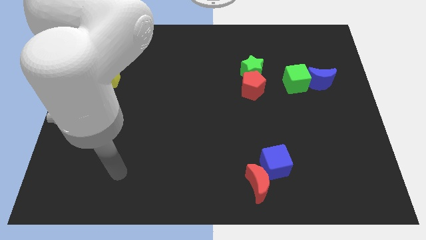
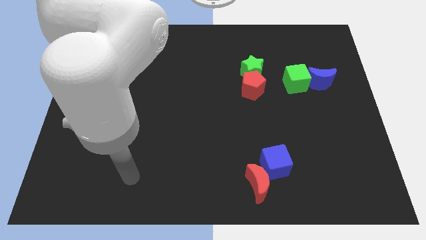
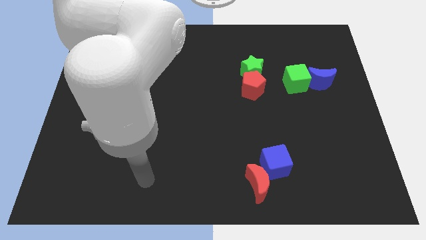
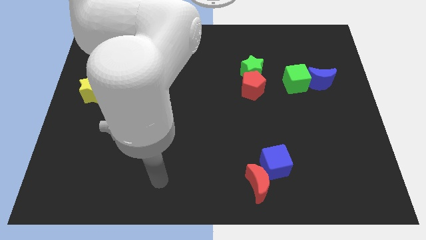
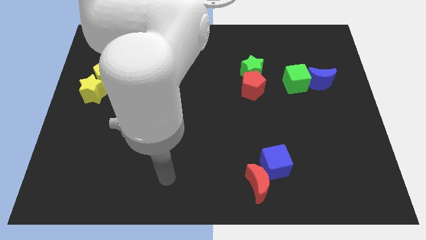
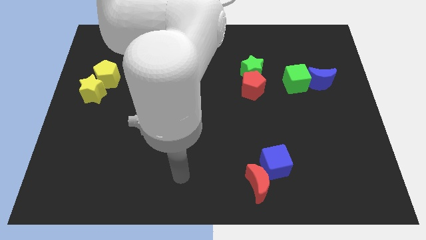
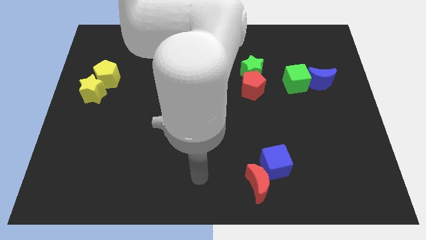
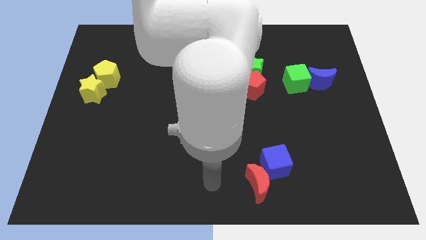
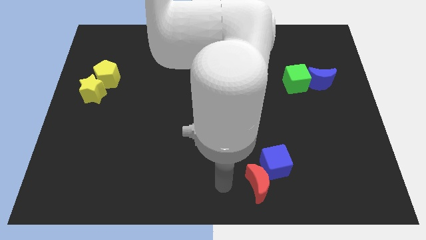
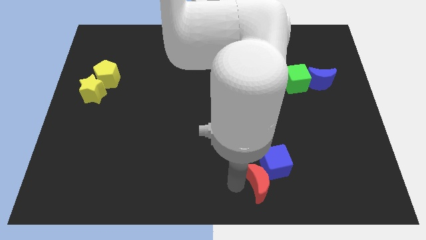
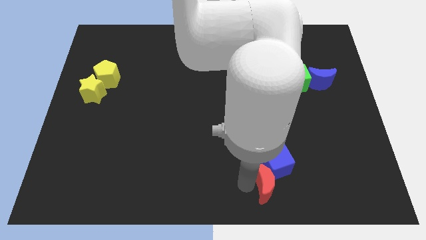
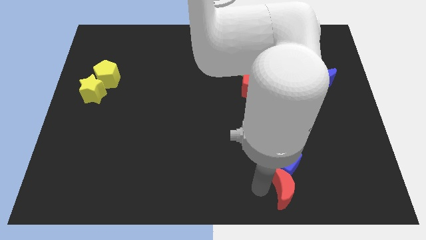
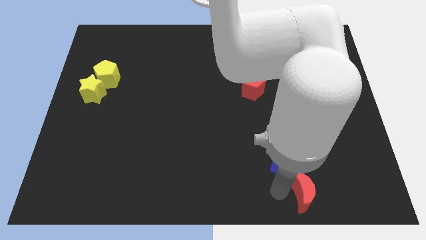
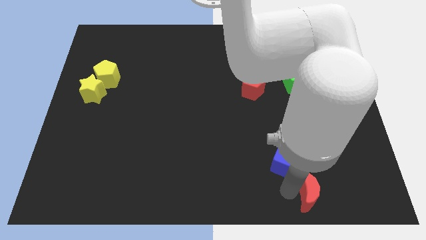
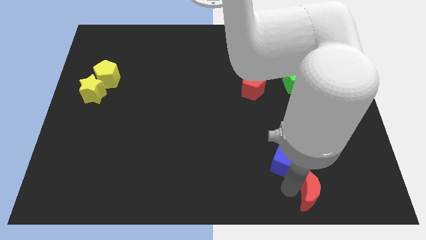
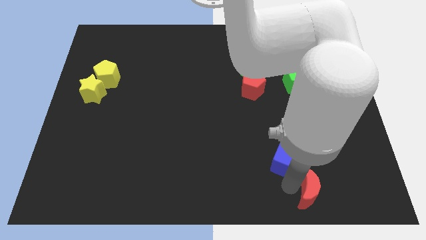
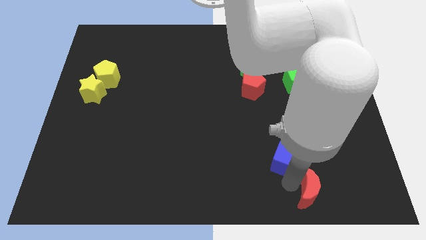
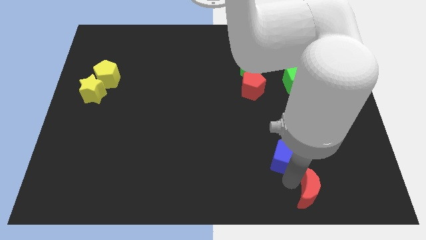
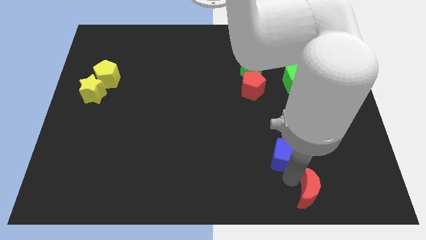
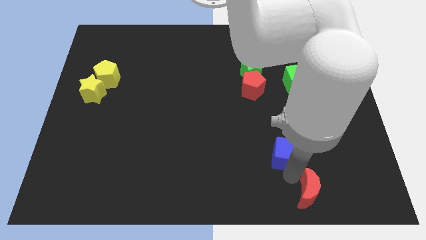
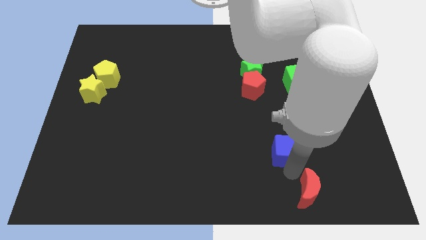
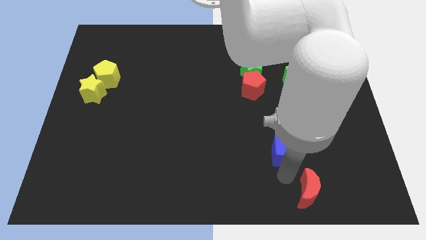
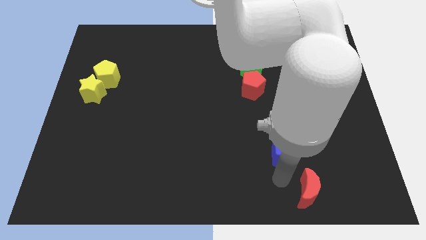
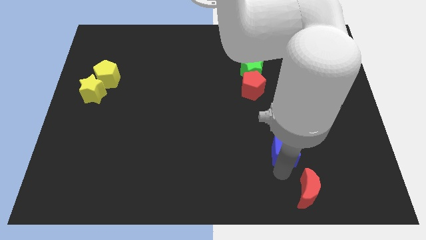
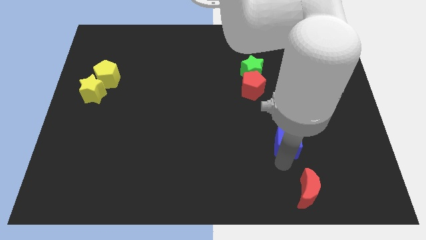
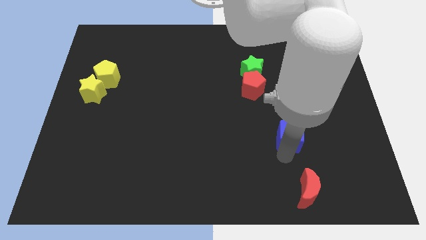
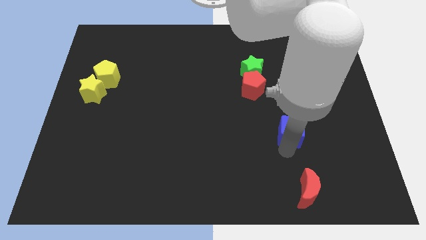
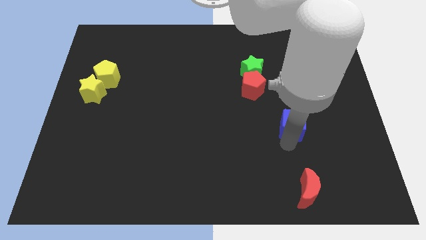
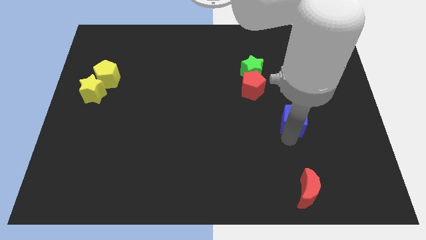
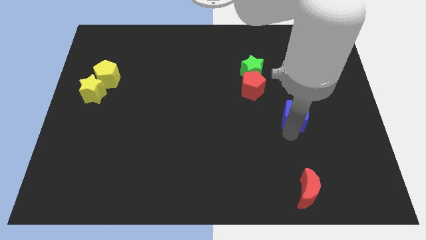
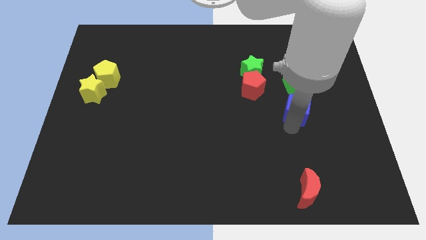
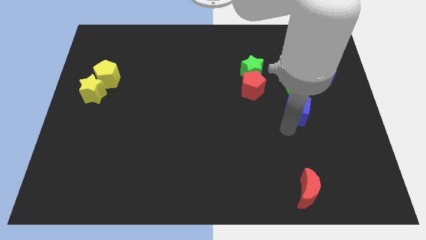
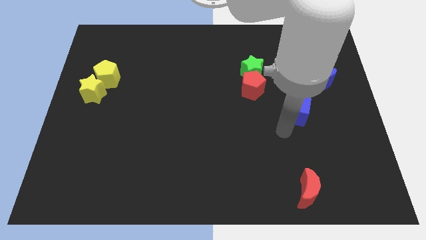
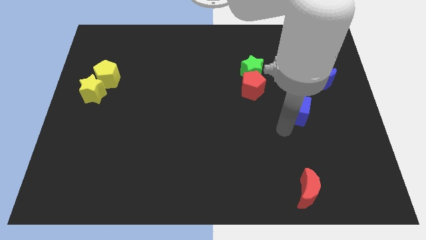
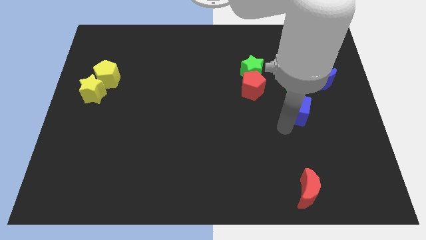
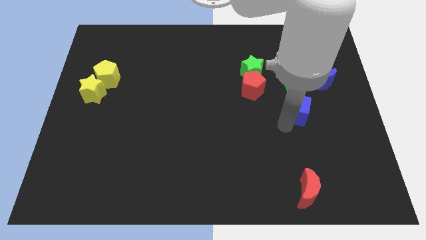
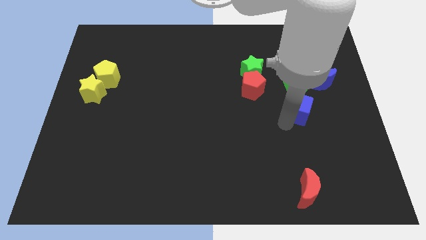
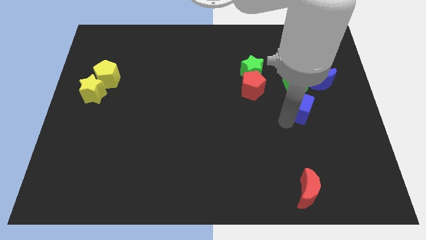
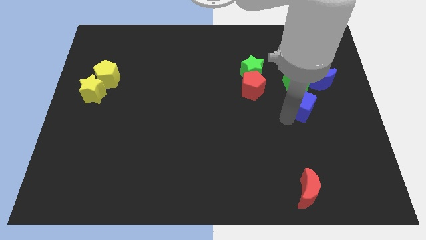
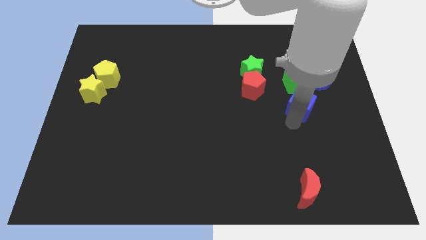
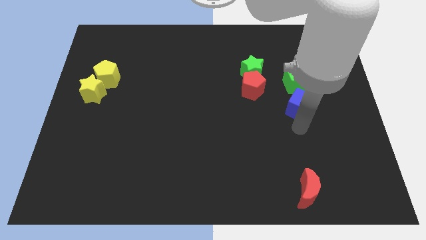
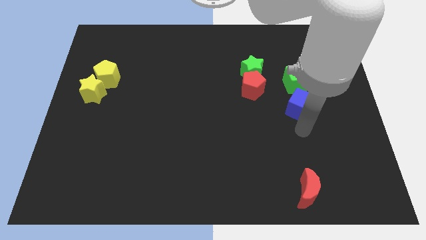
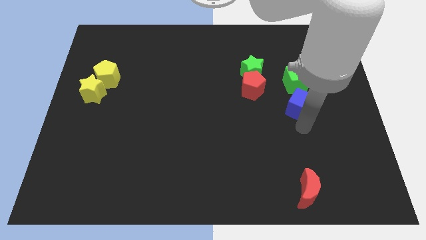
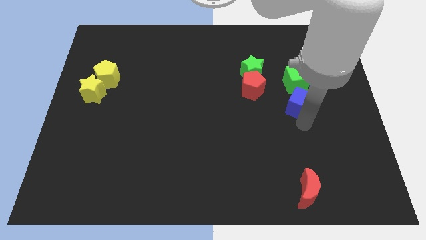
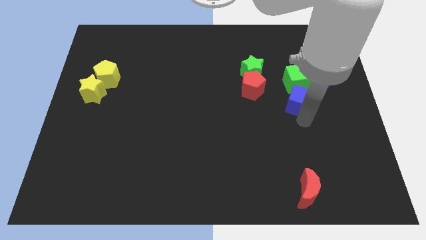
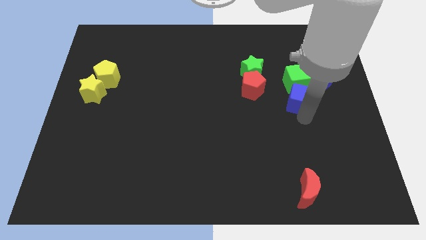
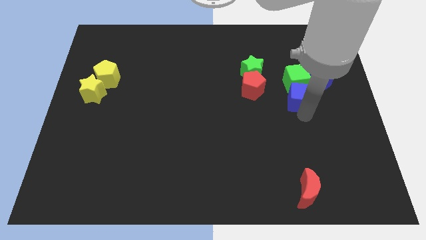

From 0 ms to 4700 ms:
move the blue cube towards the green cube

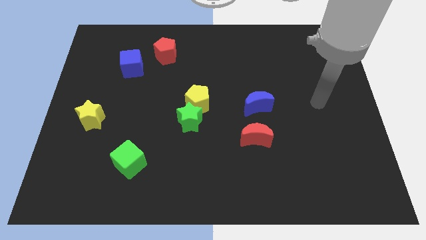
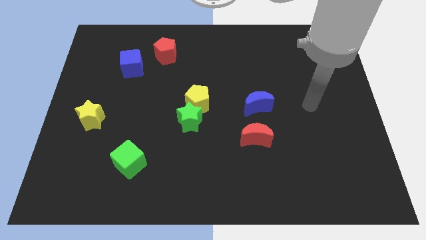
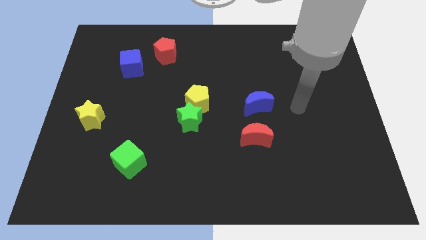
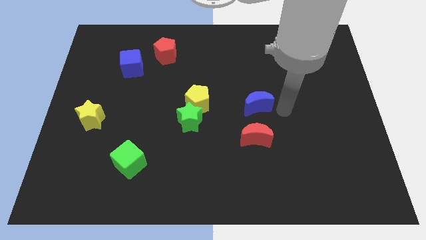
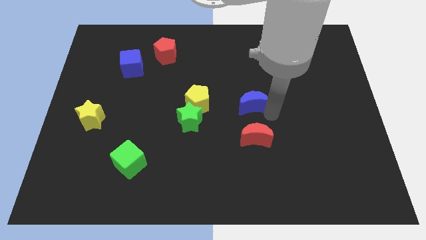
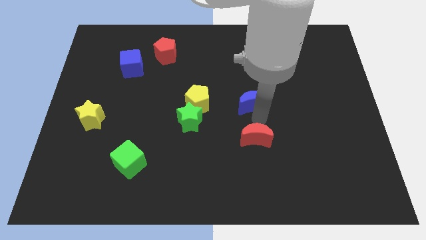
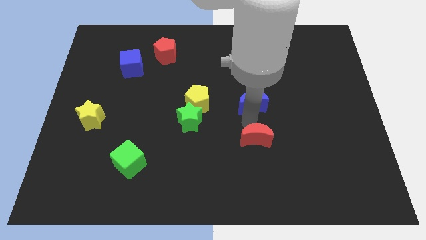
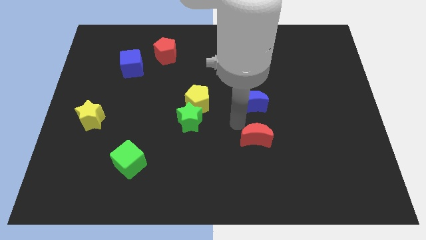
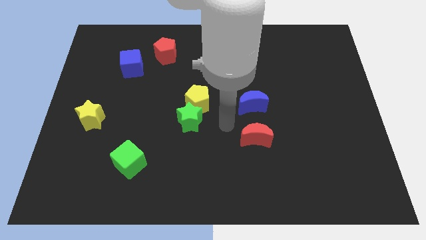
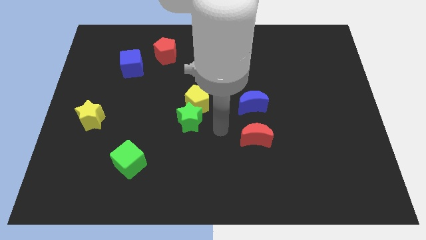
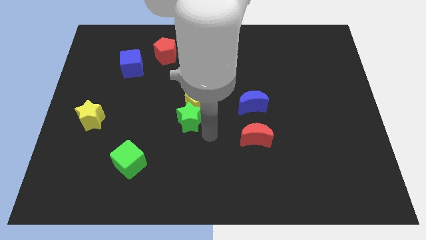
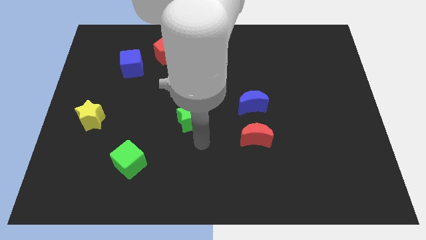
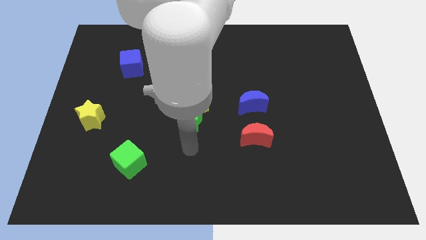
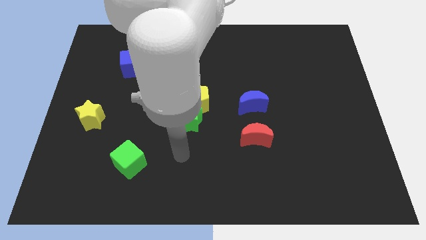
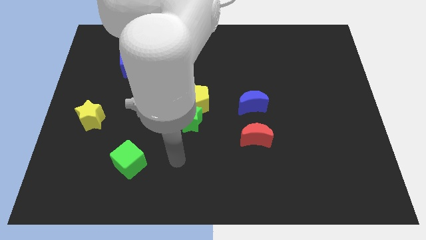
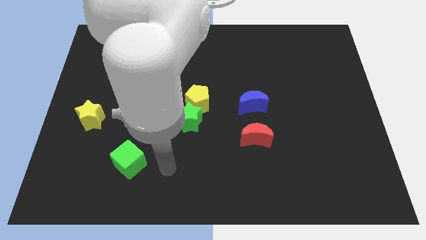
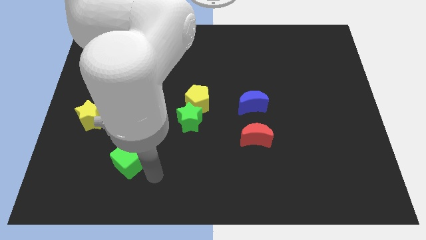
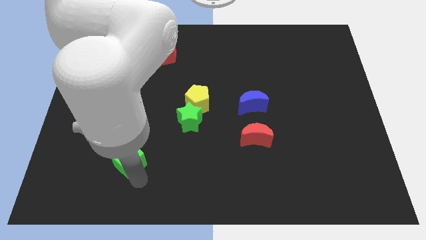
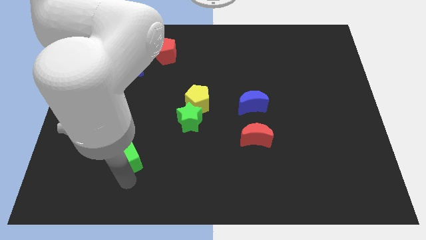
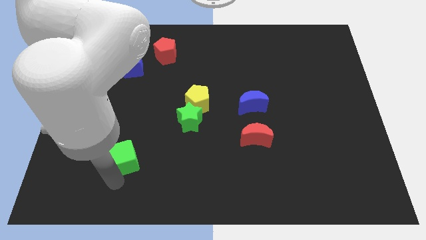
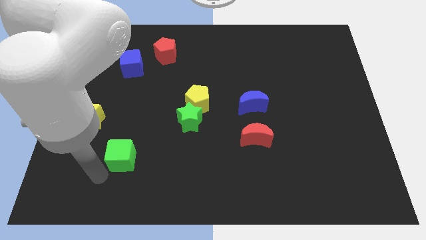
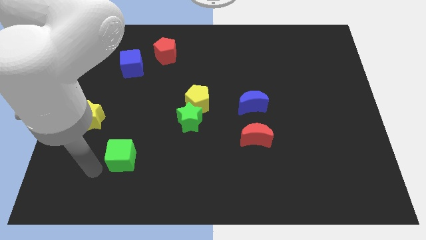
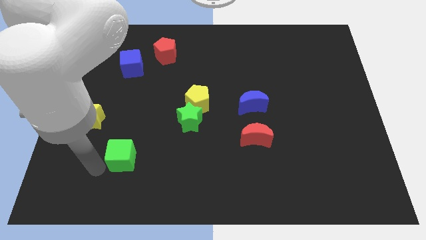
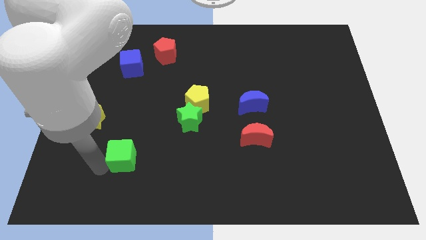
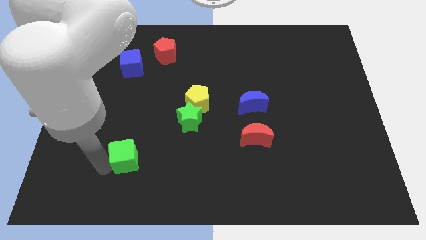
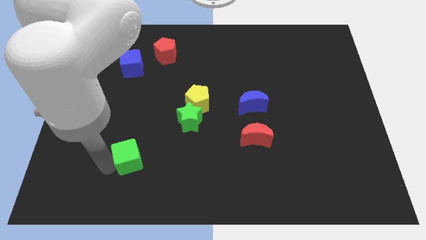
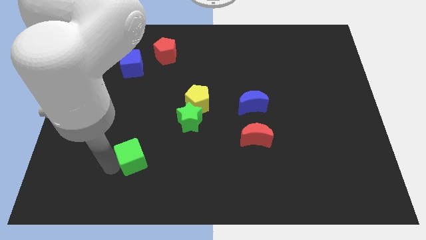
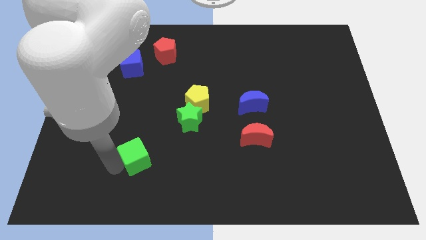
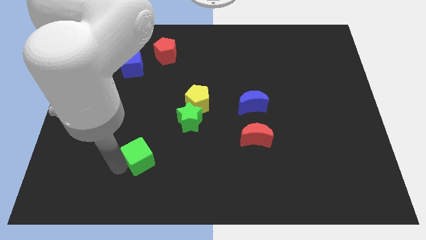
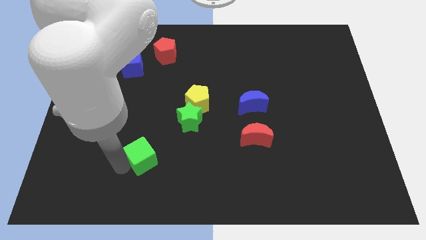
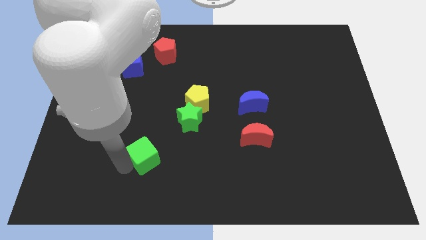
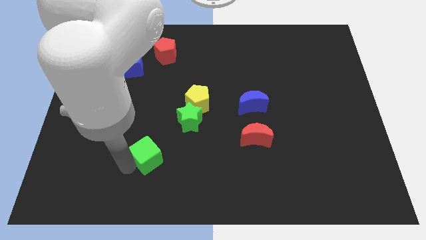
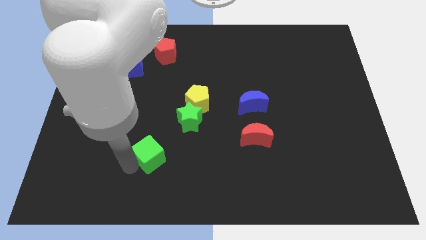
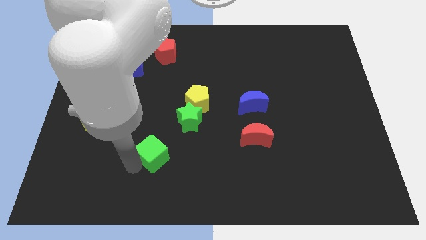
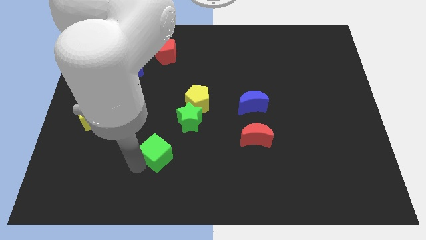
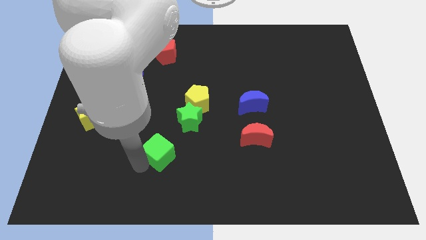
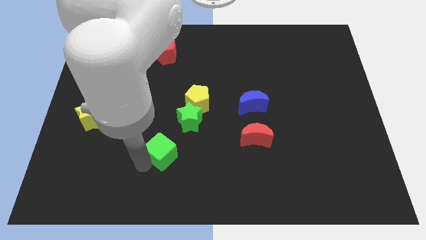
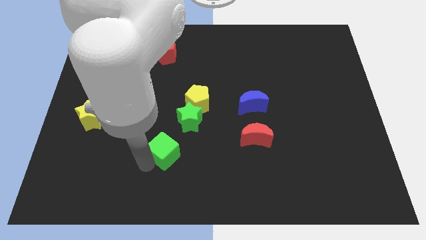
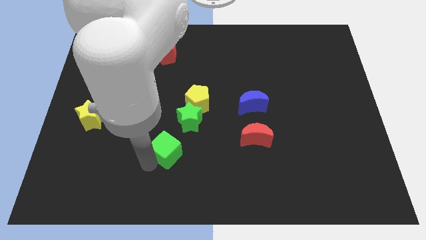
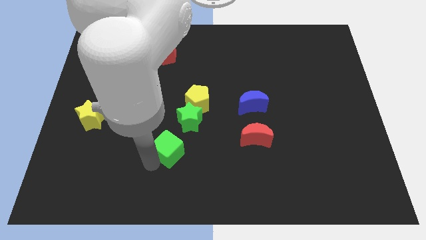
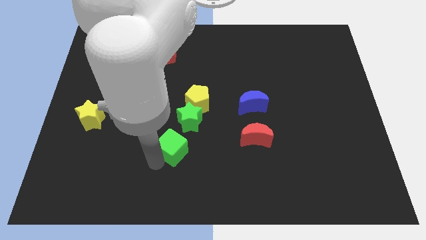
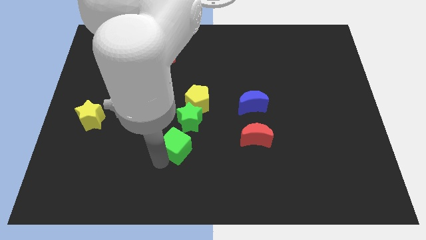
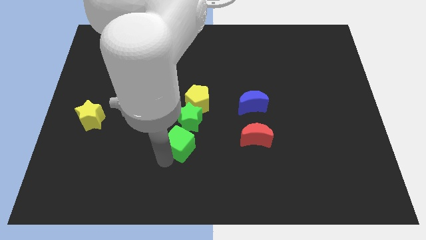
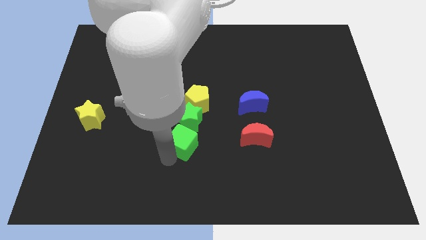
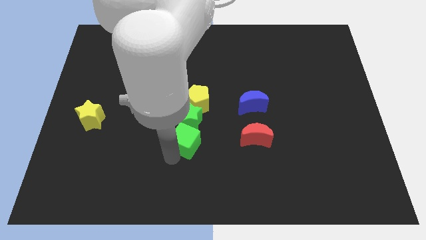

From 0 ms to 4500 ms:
move the green cube close to the green star
